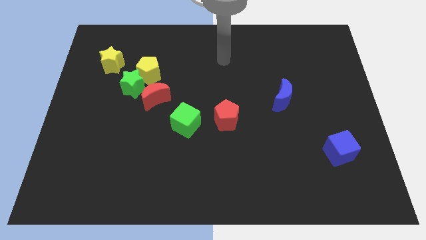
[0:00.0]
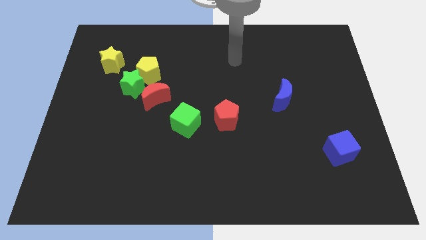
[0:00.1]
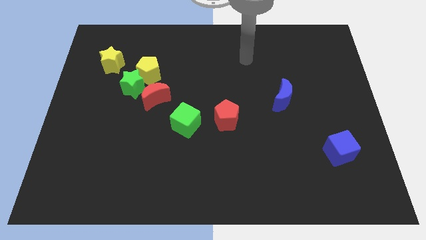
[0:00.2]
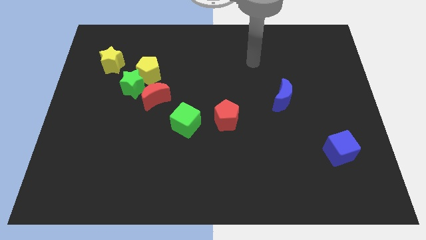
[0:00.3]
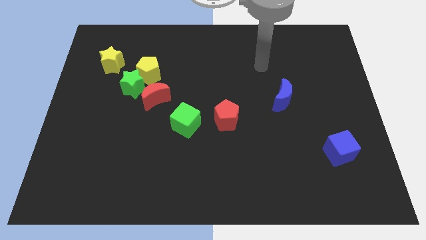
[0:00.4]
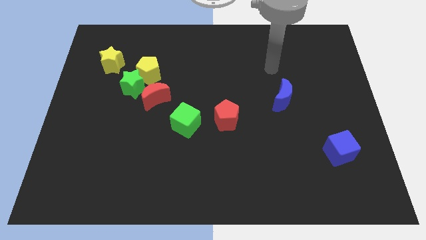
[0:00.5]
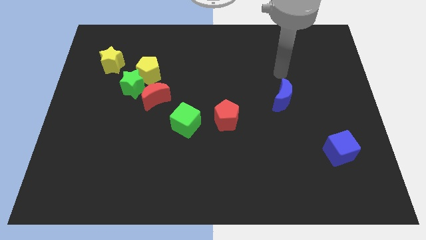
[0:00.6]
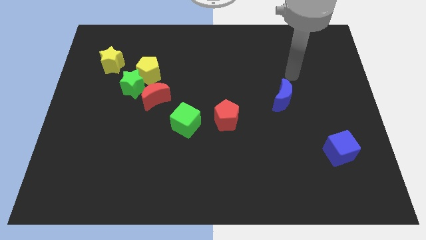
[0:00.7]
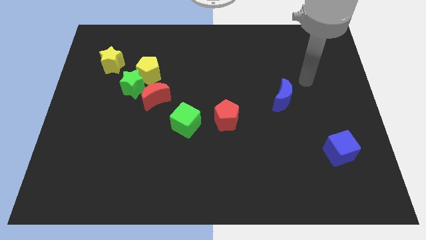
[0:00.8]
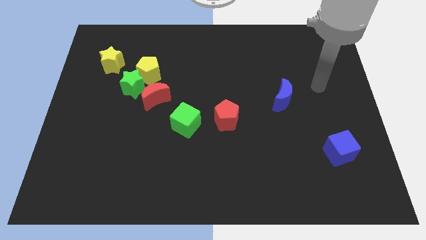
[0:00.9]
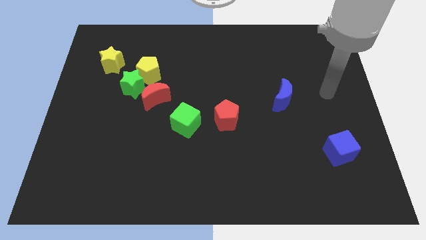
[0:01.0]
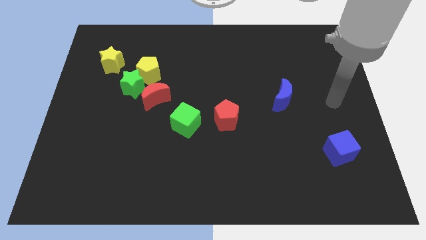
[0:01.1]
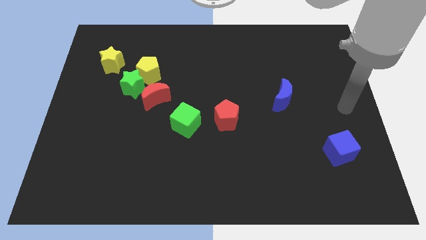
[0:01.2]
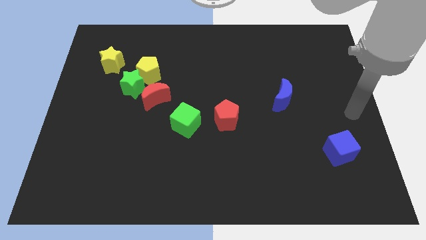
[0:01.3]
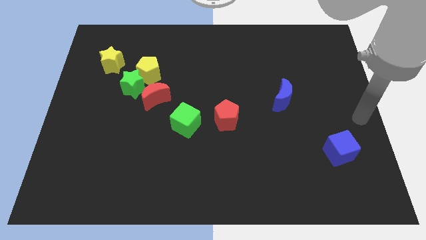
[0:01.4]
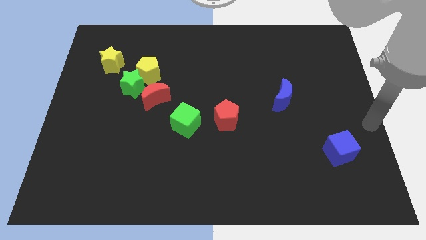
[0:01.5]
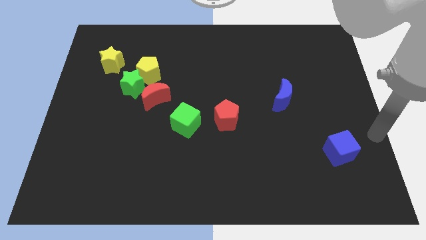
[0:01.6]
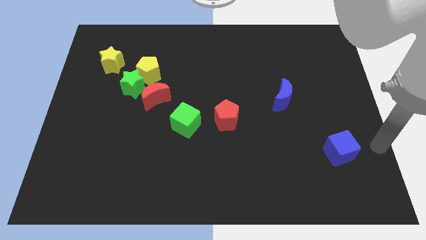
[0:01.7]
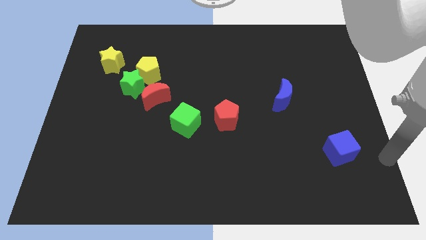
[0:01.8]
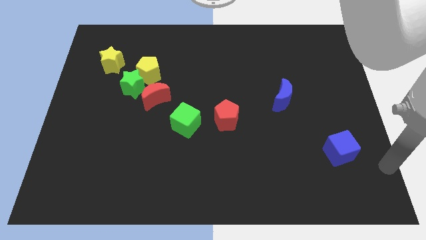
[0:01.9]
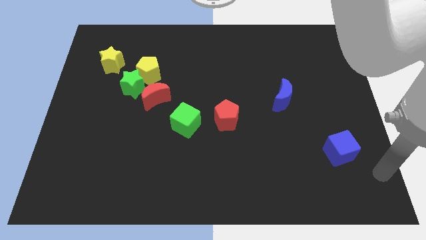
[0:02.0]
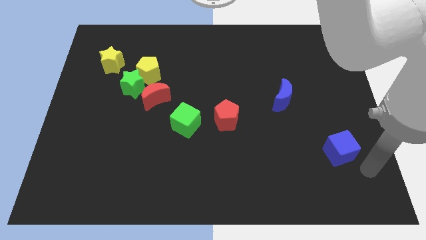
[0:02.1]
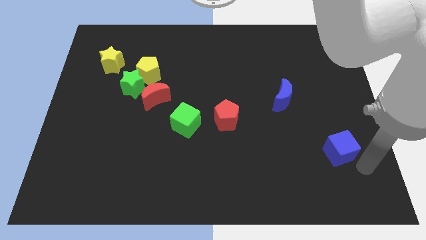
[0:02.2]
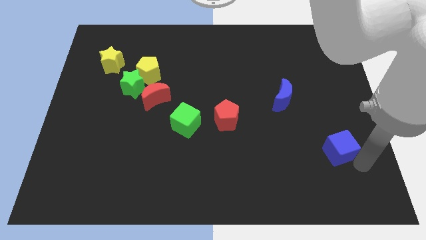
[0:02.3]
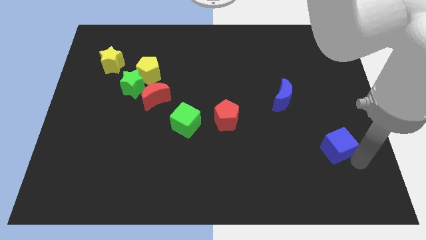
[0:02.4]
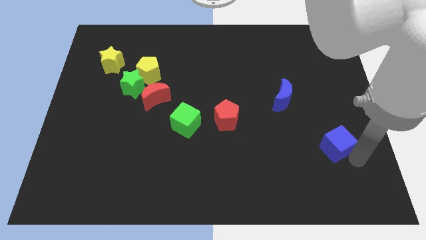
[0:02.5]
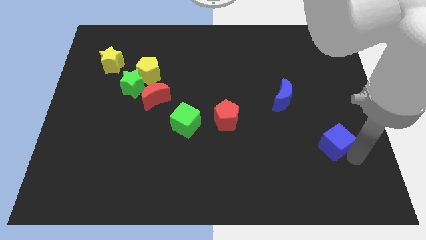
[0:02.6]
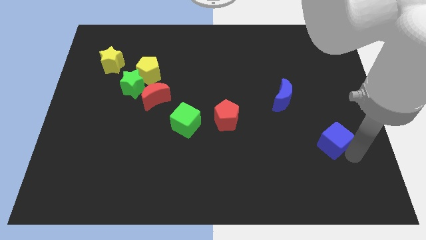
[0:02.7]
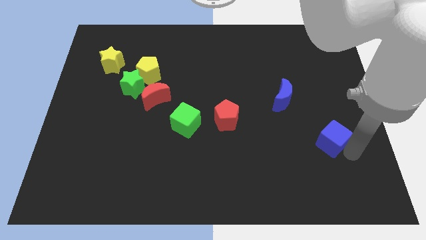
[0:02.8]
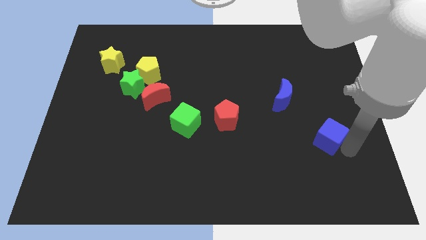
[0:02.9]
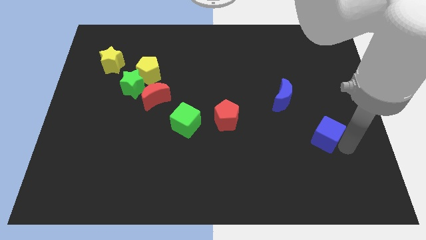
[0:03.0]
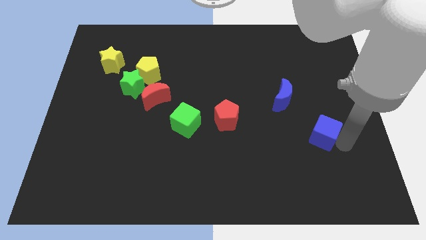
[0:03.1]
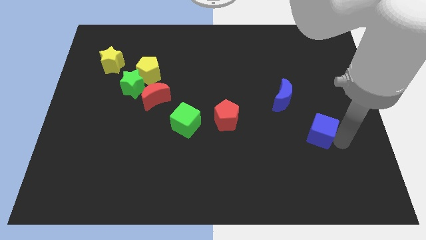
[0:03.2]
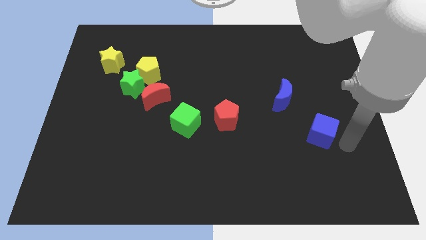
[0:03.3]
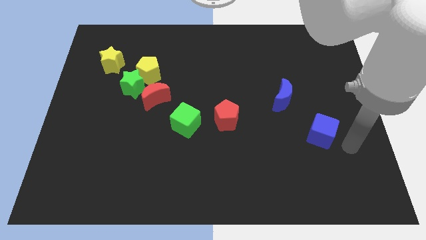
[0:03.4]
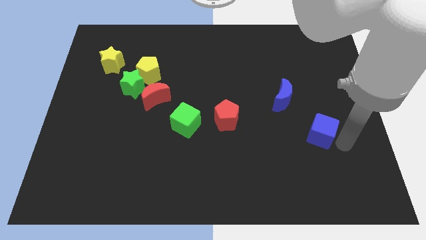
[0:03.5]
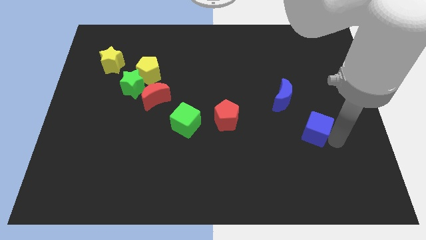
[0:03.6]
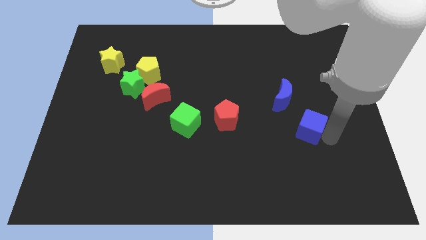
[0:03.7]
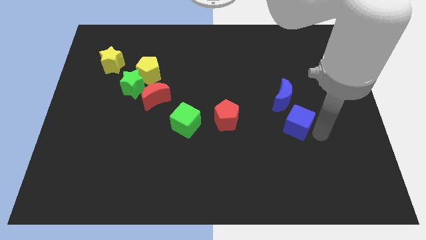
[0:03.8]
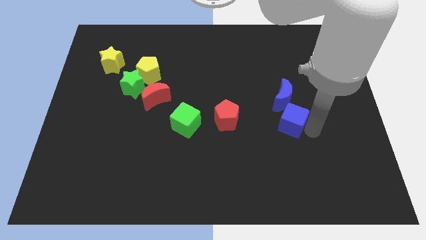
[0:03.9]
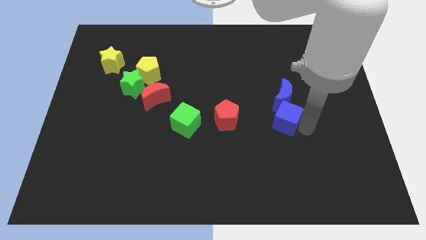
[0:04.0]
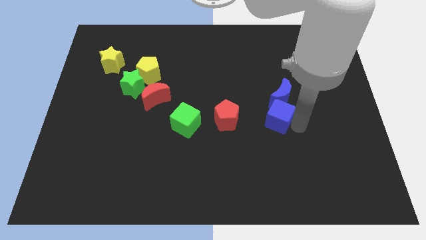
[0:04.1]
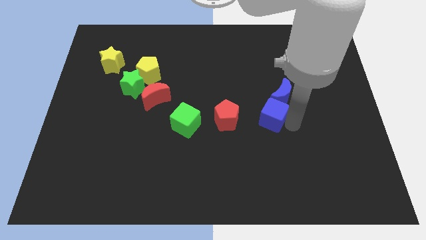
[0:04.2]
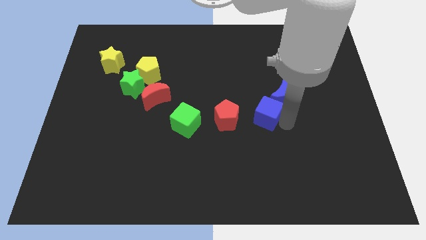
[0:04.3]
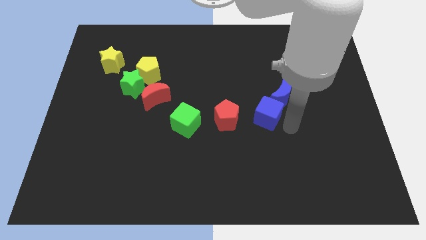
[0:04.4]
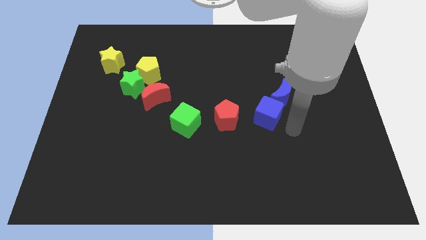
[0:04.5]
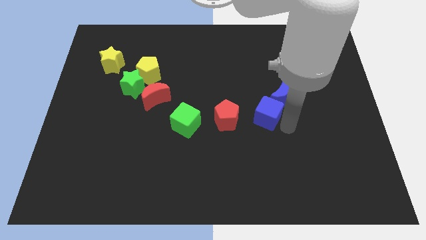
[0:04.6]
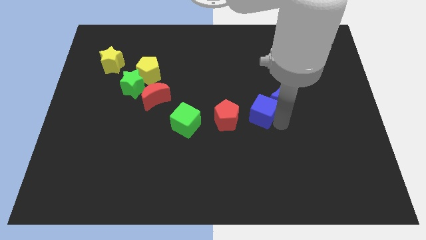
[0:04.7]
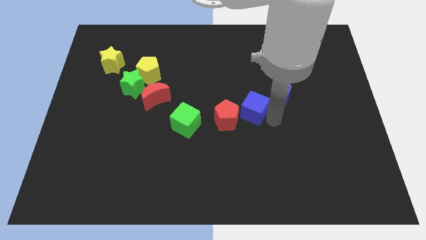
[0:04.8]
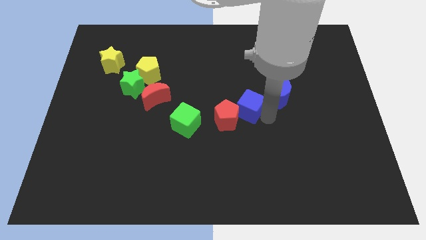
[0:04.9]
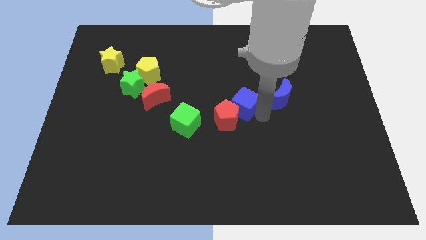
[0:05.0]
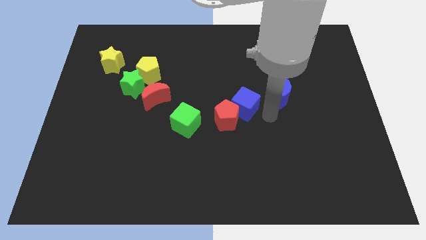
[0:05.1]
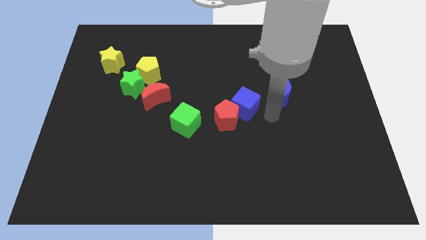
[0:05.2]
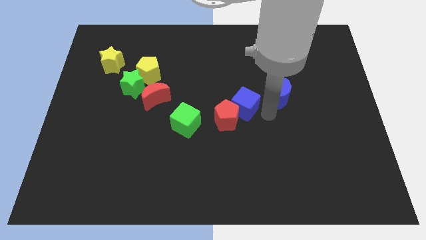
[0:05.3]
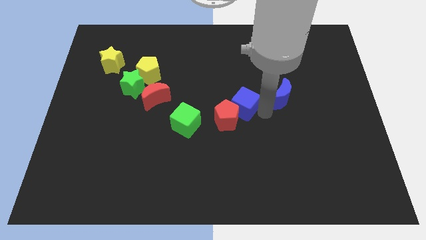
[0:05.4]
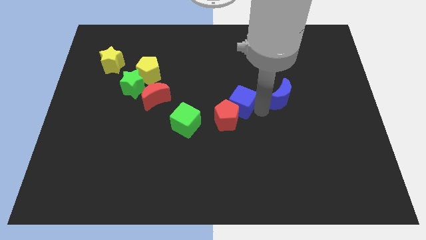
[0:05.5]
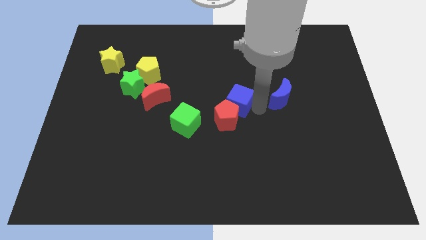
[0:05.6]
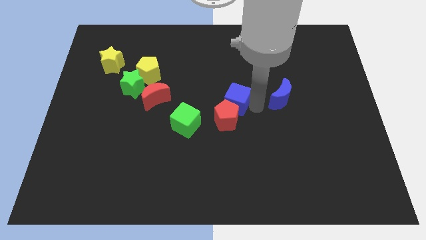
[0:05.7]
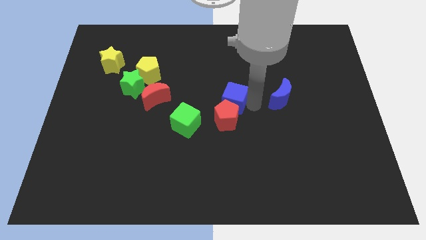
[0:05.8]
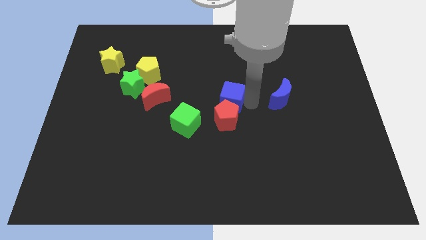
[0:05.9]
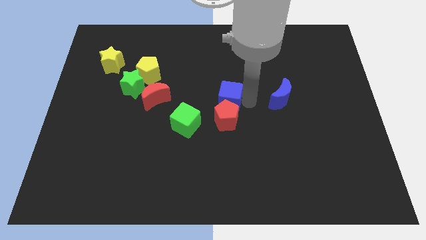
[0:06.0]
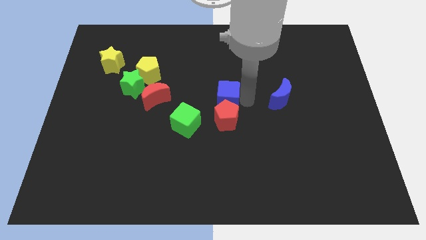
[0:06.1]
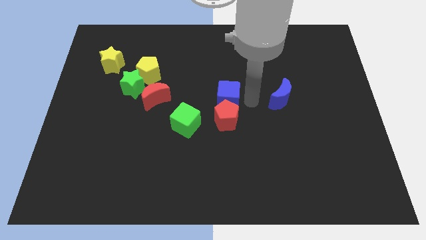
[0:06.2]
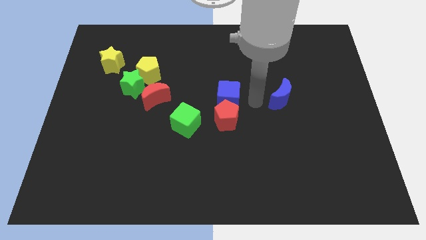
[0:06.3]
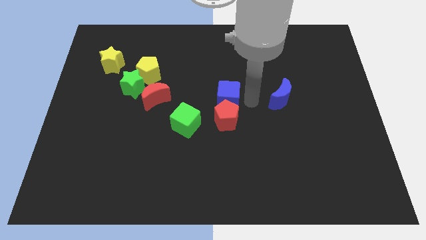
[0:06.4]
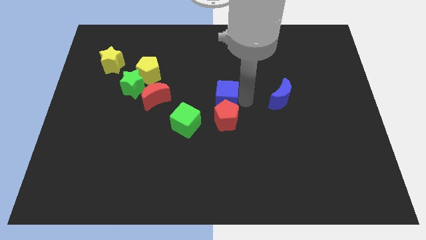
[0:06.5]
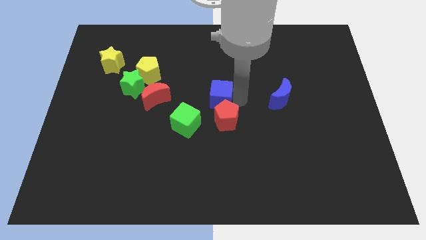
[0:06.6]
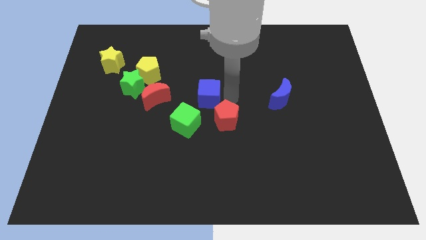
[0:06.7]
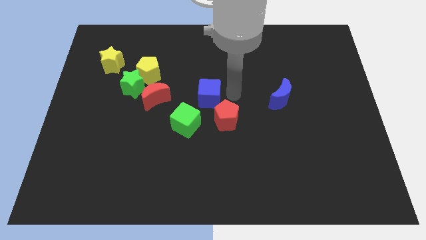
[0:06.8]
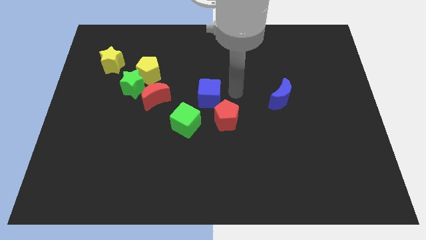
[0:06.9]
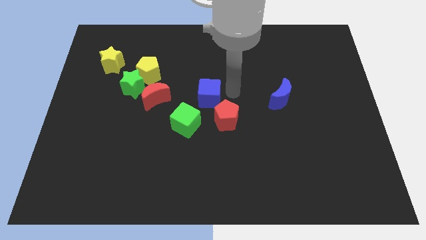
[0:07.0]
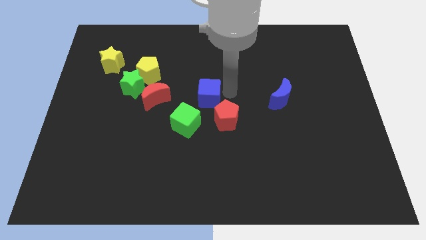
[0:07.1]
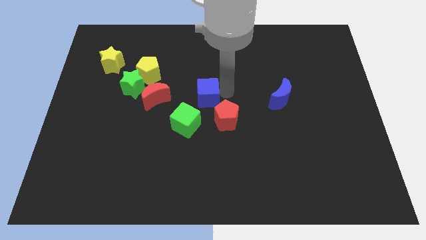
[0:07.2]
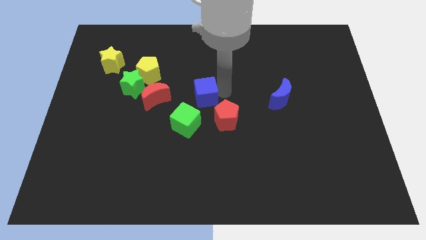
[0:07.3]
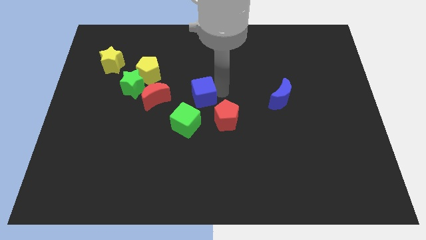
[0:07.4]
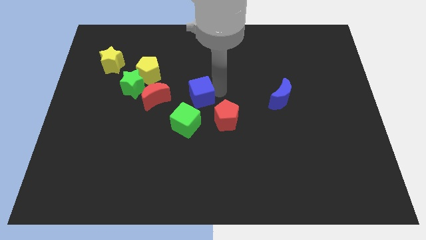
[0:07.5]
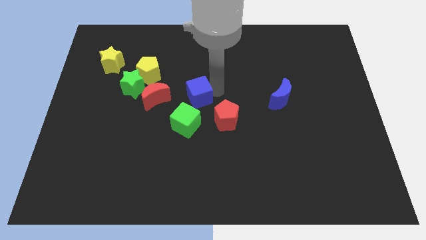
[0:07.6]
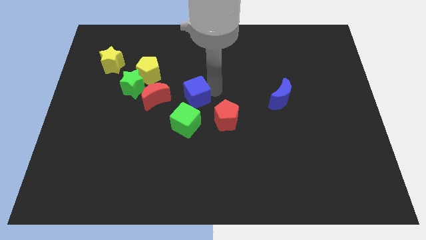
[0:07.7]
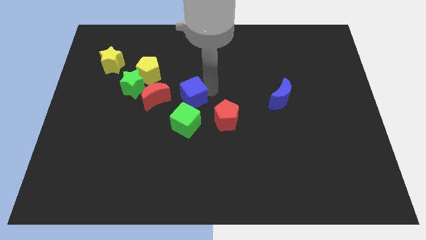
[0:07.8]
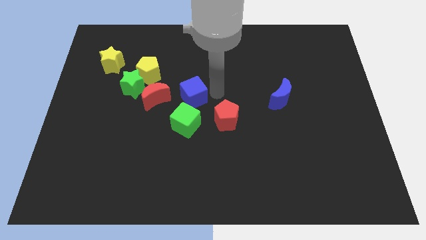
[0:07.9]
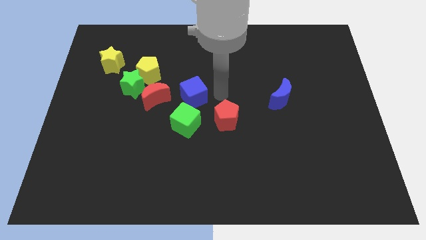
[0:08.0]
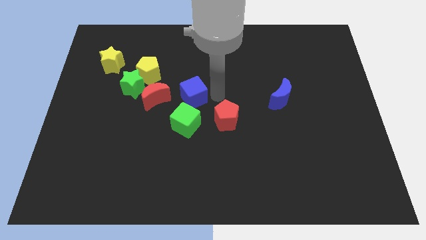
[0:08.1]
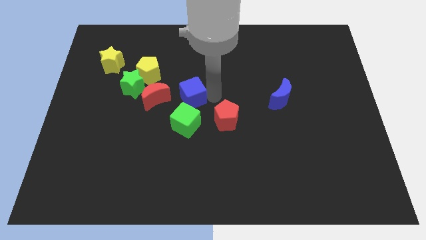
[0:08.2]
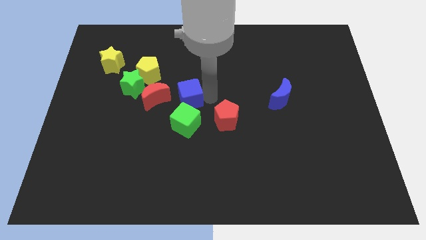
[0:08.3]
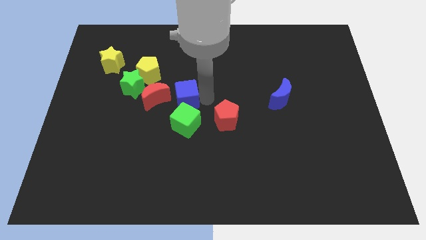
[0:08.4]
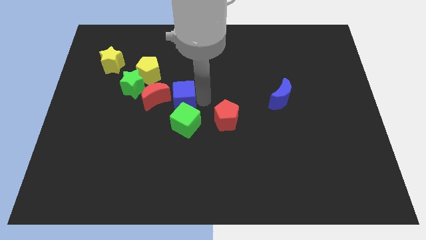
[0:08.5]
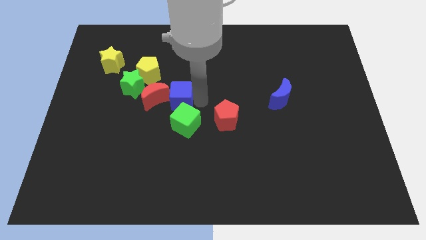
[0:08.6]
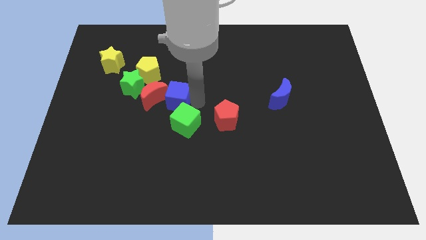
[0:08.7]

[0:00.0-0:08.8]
push the blue cube towards the red moon
